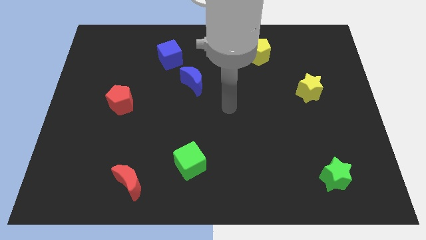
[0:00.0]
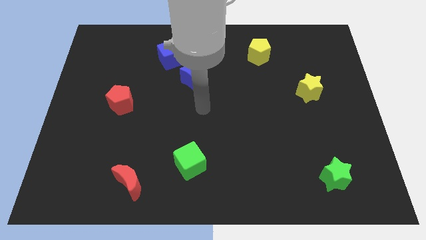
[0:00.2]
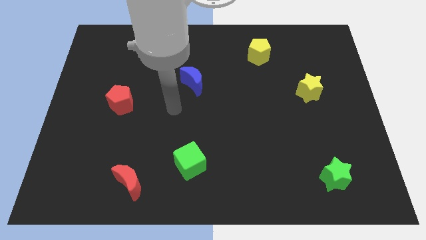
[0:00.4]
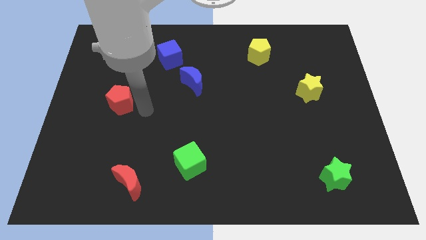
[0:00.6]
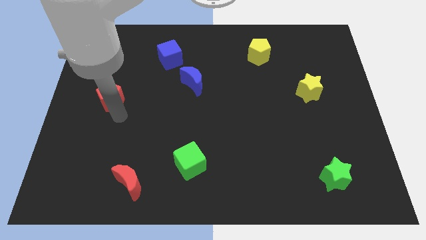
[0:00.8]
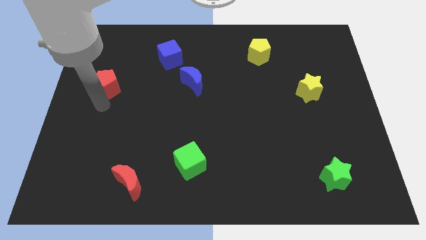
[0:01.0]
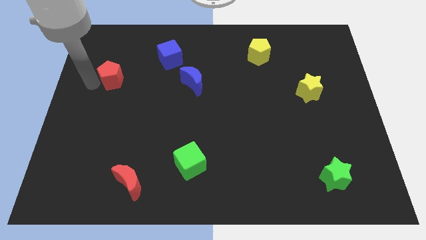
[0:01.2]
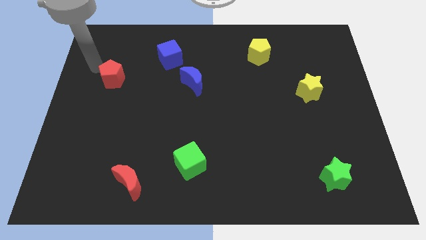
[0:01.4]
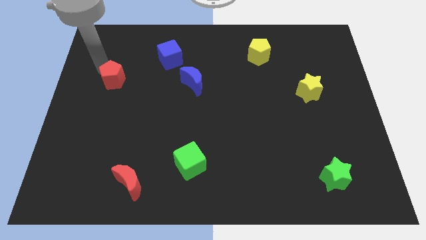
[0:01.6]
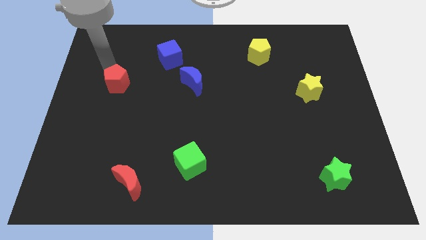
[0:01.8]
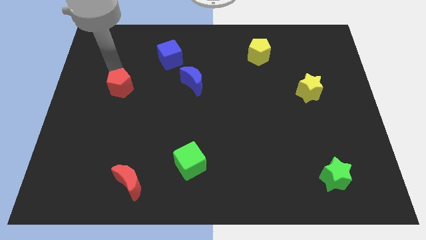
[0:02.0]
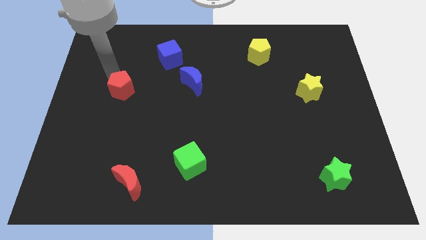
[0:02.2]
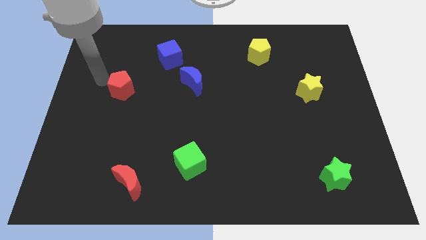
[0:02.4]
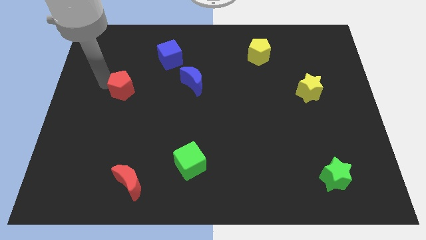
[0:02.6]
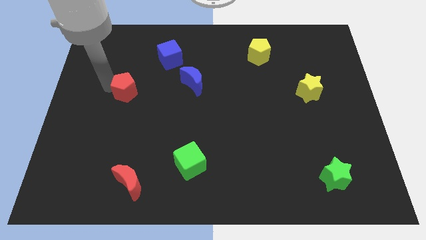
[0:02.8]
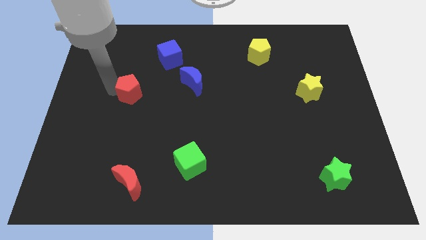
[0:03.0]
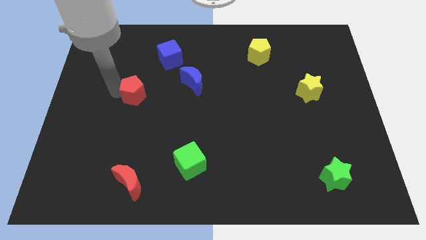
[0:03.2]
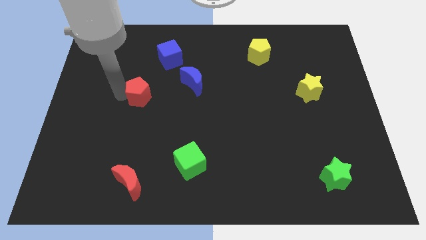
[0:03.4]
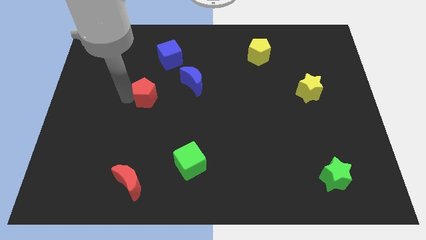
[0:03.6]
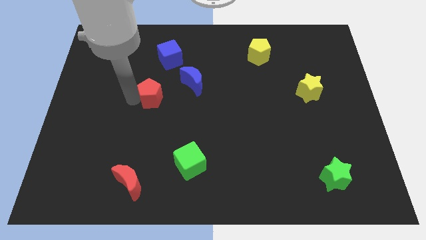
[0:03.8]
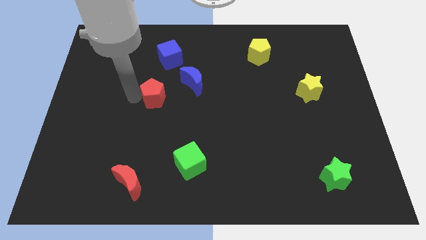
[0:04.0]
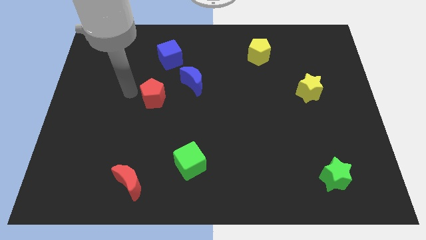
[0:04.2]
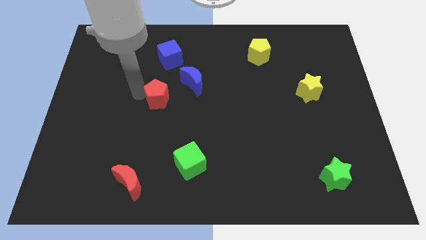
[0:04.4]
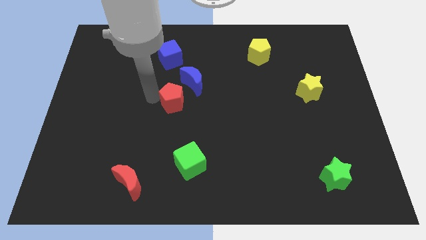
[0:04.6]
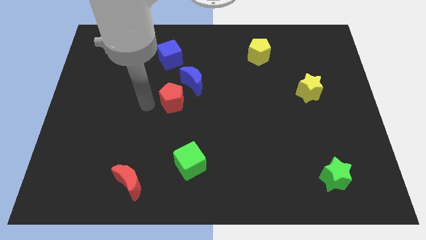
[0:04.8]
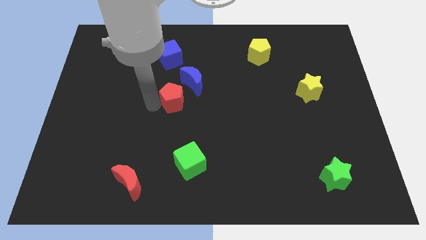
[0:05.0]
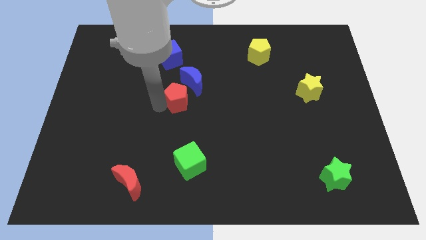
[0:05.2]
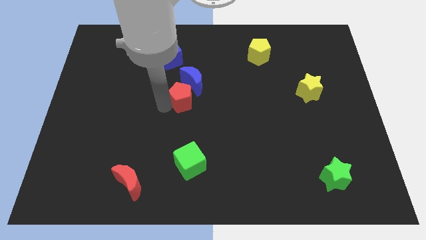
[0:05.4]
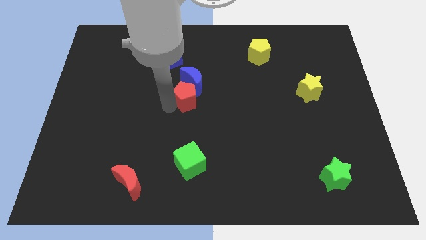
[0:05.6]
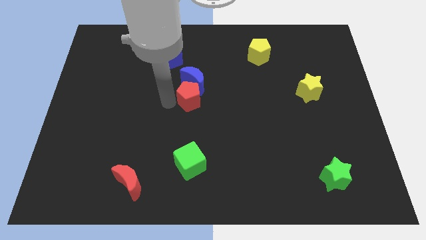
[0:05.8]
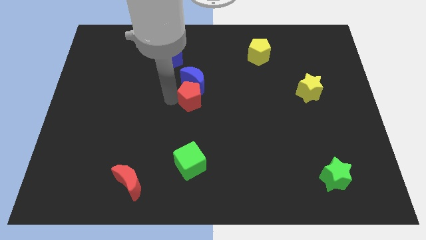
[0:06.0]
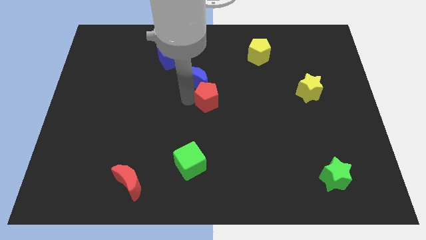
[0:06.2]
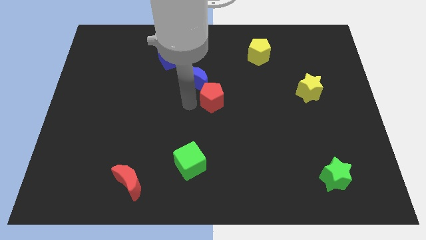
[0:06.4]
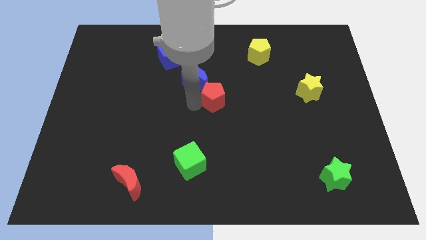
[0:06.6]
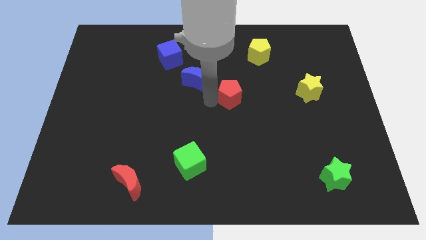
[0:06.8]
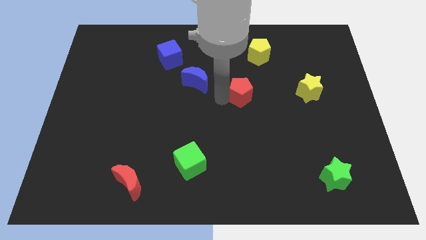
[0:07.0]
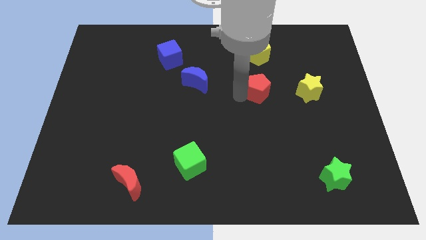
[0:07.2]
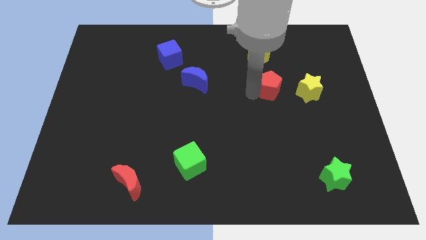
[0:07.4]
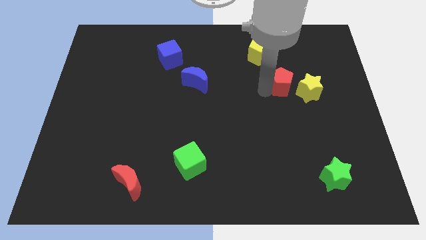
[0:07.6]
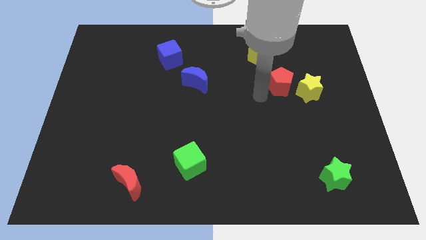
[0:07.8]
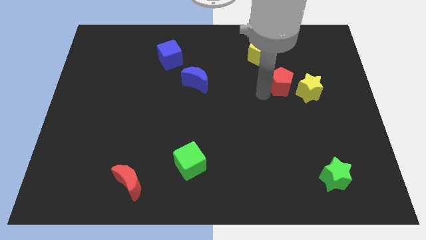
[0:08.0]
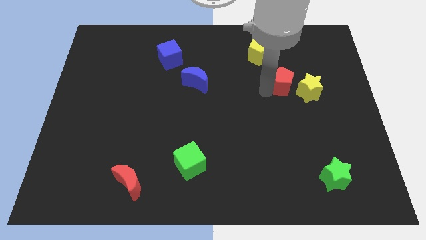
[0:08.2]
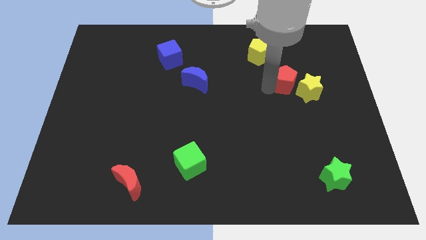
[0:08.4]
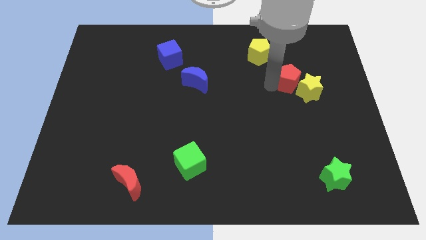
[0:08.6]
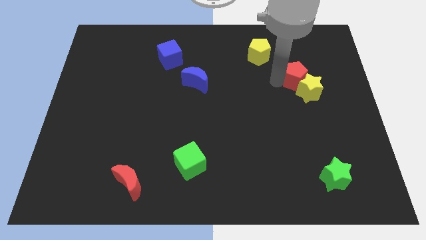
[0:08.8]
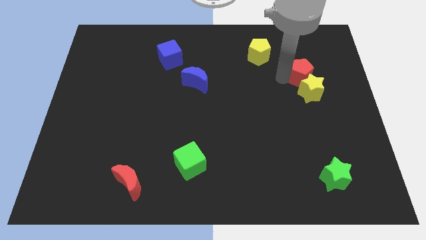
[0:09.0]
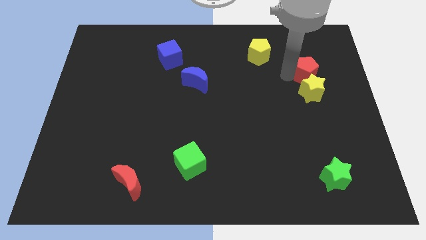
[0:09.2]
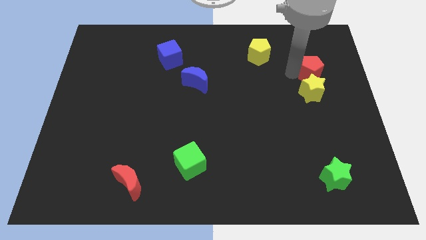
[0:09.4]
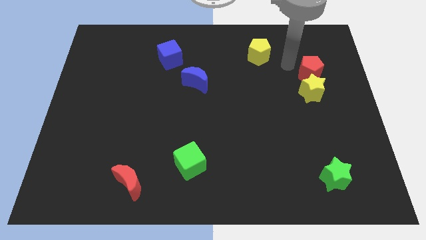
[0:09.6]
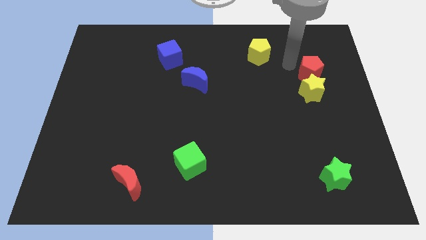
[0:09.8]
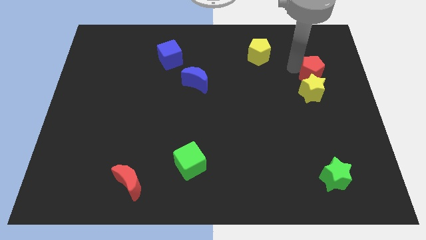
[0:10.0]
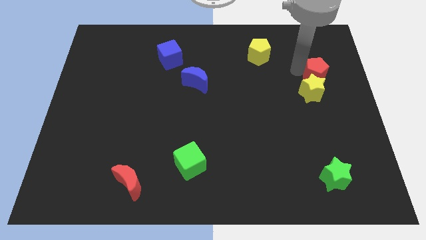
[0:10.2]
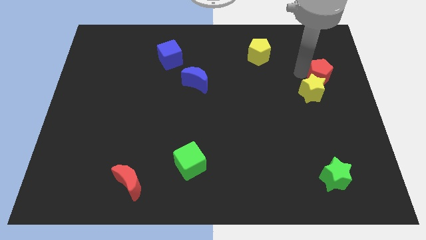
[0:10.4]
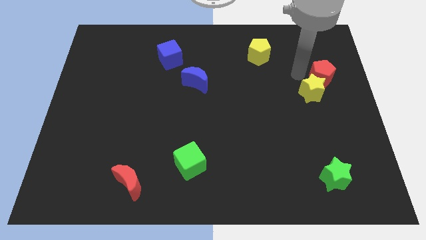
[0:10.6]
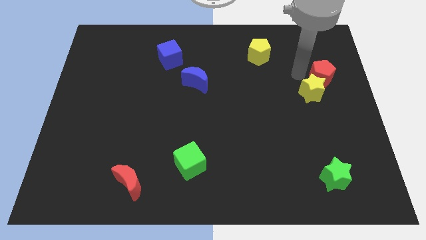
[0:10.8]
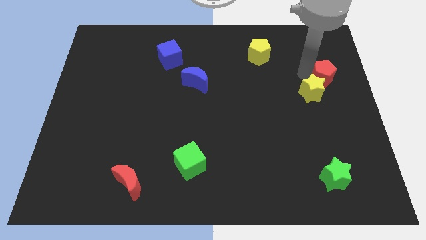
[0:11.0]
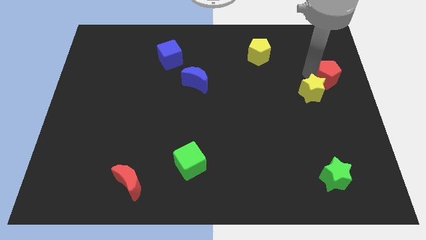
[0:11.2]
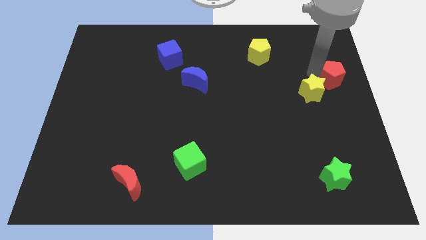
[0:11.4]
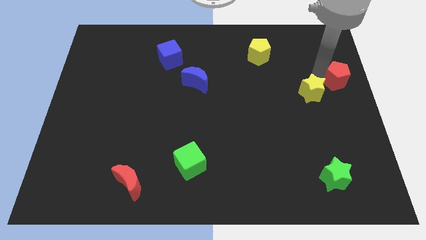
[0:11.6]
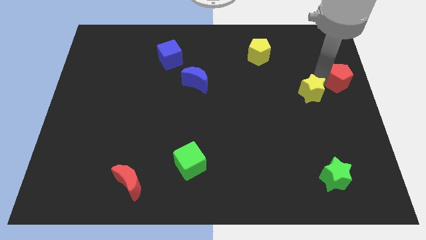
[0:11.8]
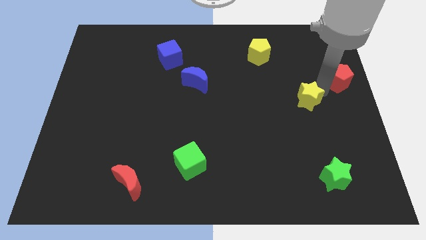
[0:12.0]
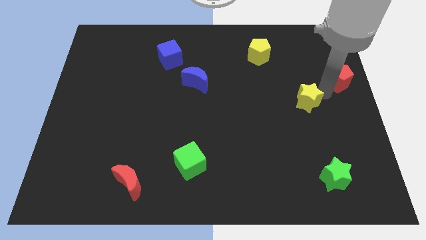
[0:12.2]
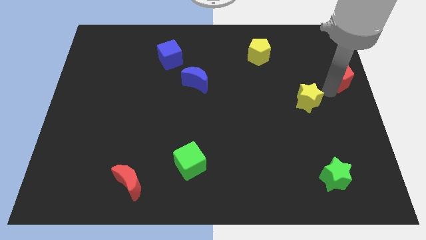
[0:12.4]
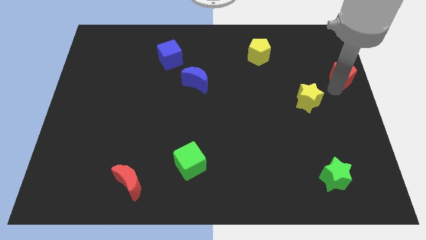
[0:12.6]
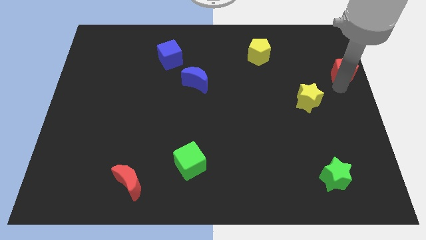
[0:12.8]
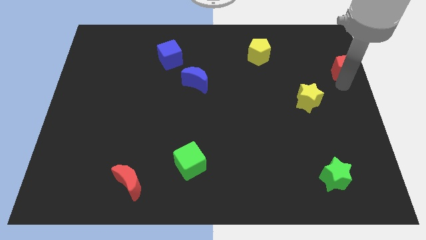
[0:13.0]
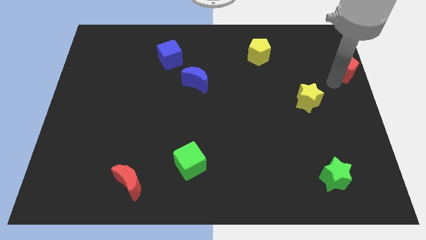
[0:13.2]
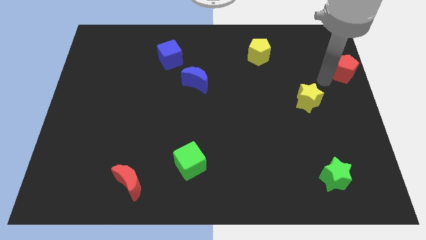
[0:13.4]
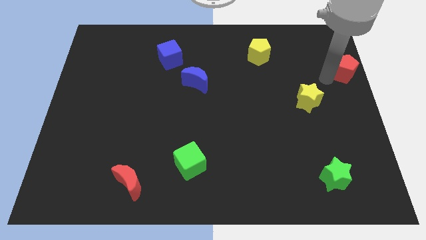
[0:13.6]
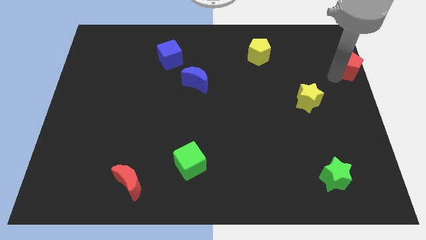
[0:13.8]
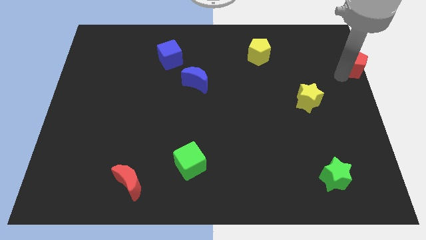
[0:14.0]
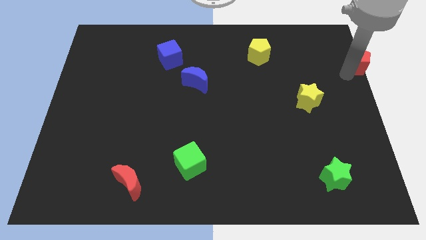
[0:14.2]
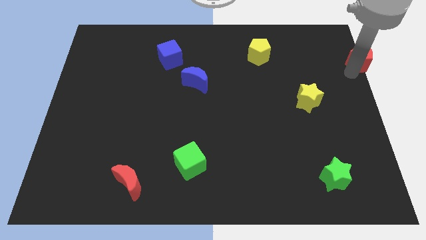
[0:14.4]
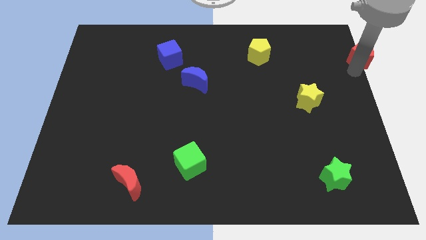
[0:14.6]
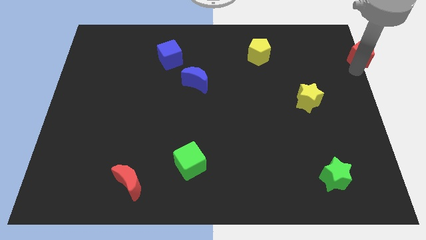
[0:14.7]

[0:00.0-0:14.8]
push the red pentagon to the top right of the board

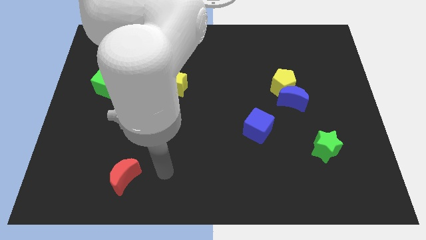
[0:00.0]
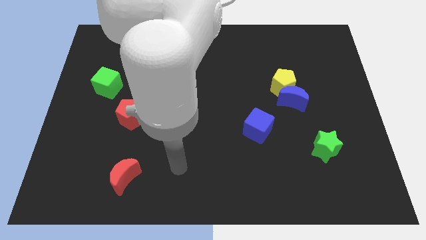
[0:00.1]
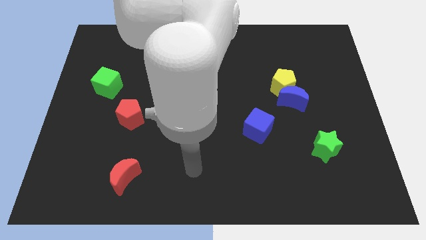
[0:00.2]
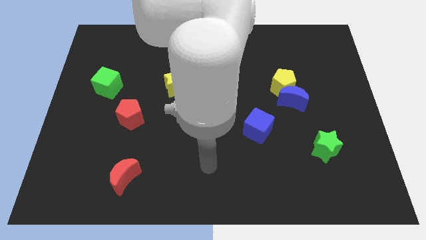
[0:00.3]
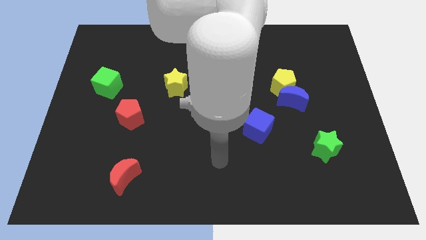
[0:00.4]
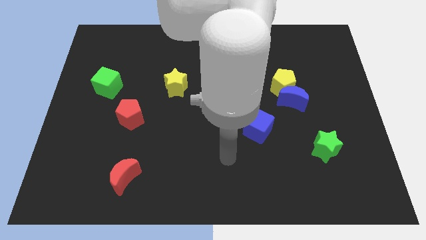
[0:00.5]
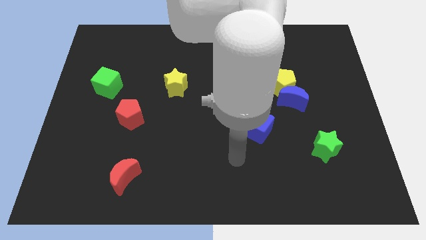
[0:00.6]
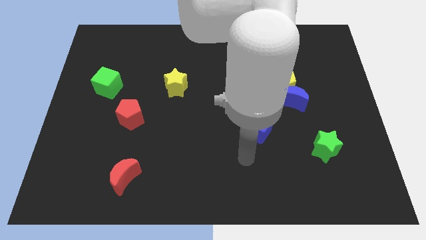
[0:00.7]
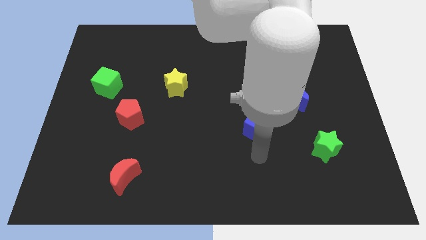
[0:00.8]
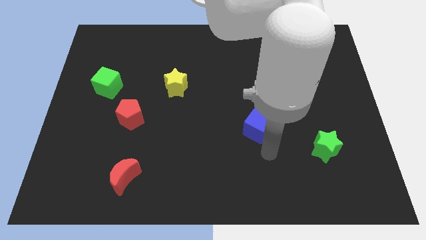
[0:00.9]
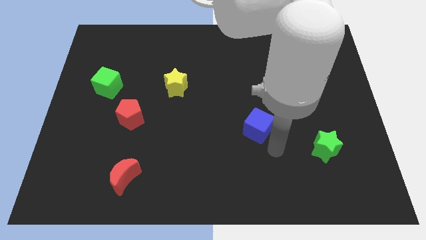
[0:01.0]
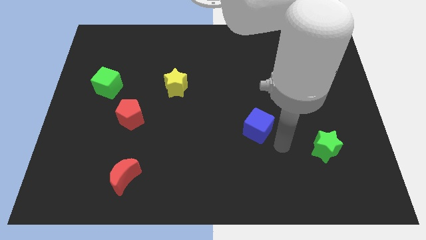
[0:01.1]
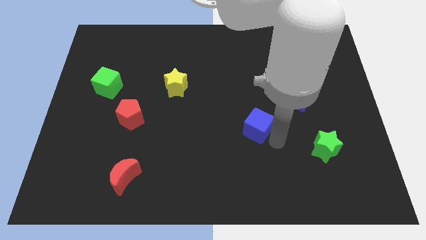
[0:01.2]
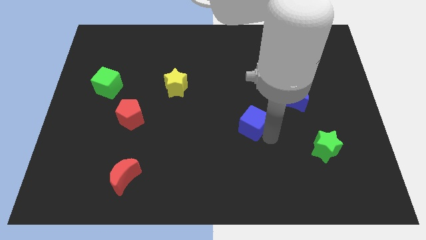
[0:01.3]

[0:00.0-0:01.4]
put the blue cube to the middle
